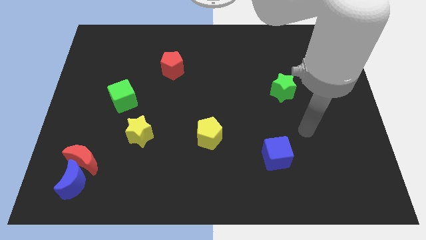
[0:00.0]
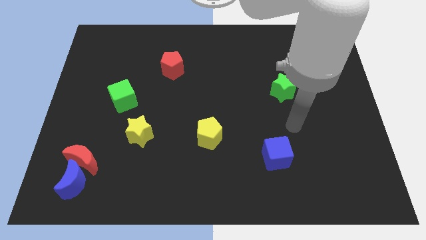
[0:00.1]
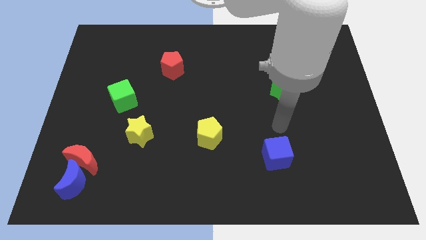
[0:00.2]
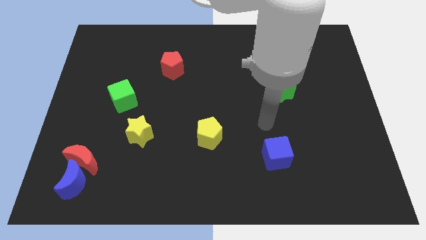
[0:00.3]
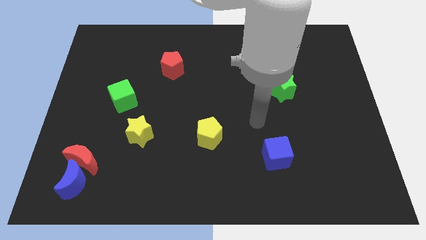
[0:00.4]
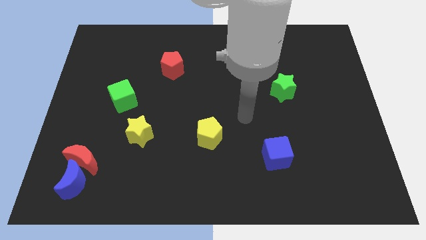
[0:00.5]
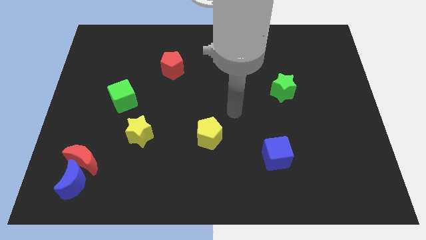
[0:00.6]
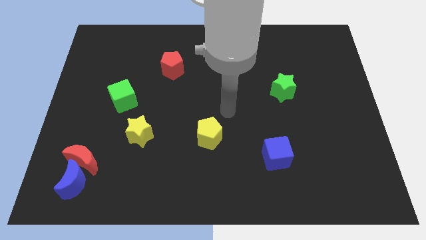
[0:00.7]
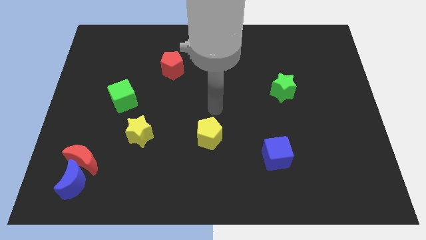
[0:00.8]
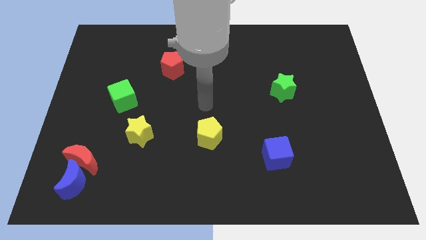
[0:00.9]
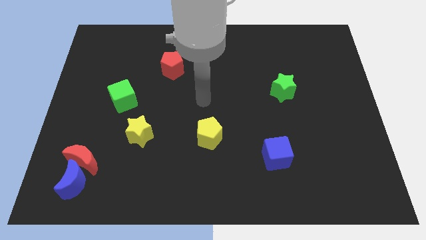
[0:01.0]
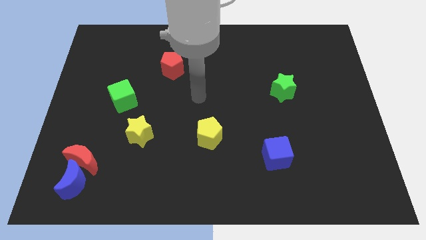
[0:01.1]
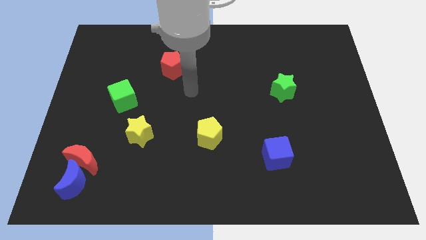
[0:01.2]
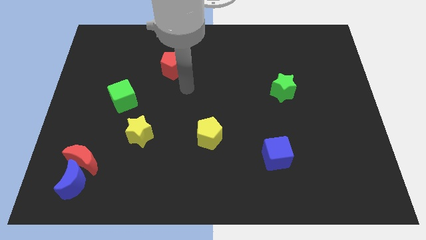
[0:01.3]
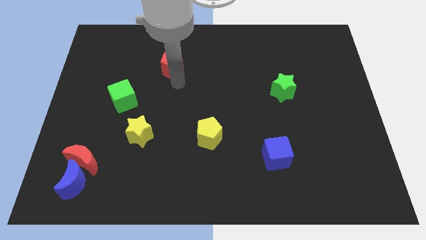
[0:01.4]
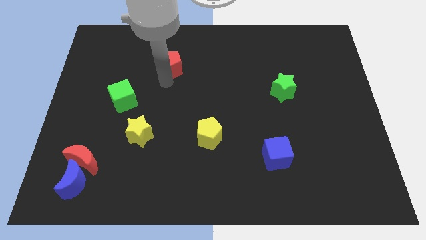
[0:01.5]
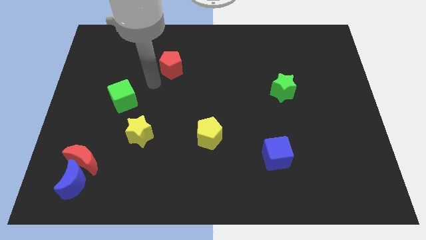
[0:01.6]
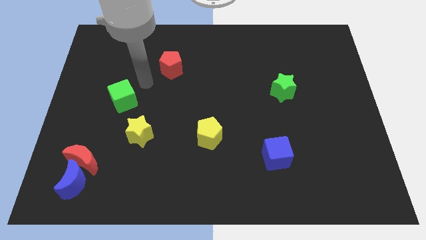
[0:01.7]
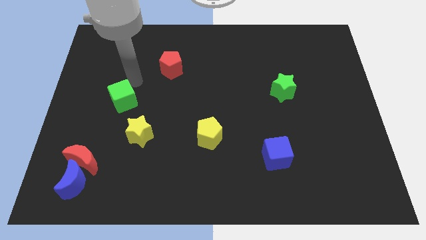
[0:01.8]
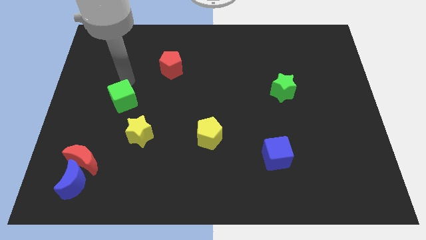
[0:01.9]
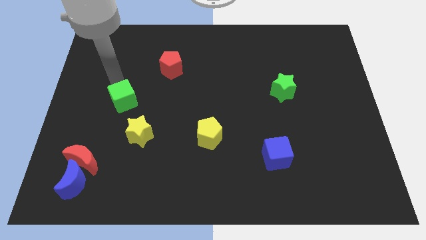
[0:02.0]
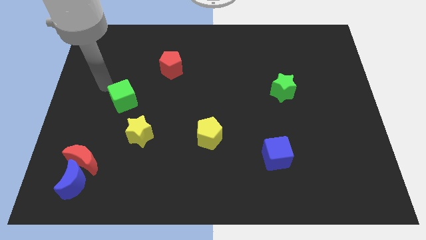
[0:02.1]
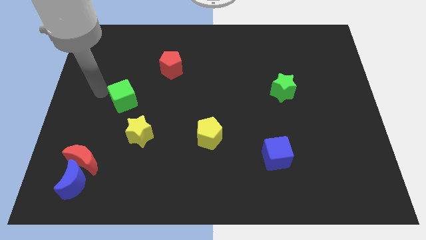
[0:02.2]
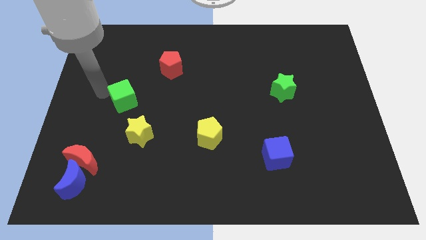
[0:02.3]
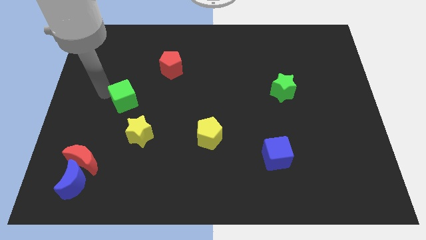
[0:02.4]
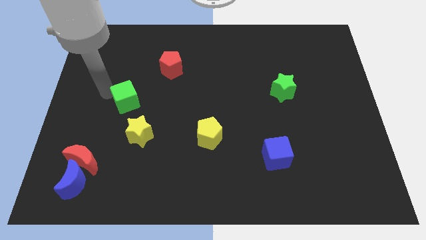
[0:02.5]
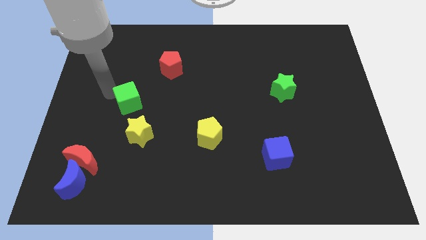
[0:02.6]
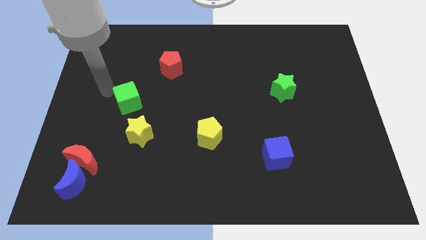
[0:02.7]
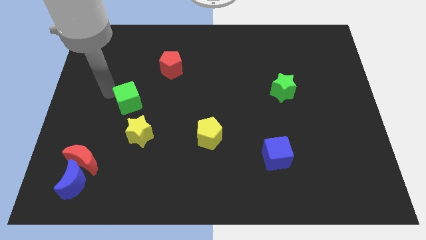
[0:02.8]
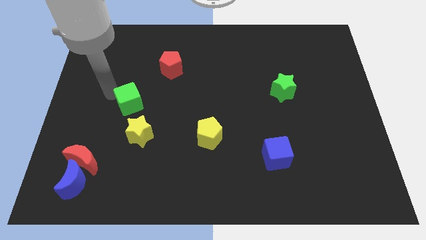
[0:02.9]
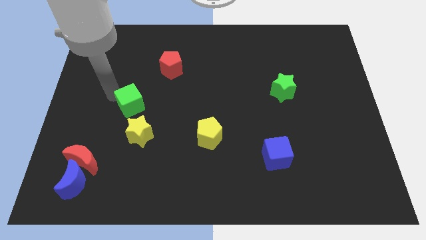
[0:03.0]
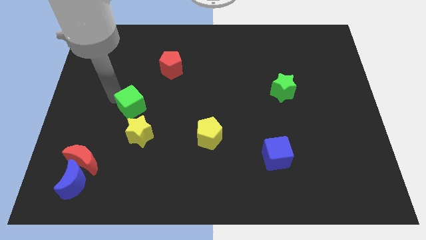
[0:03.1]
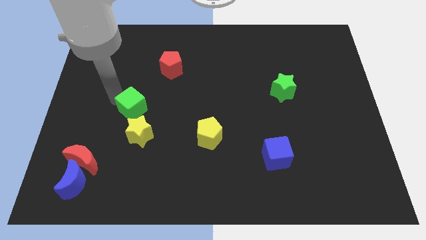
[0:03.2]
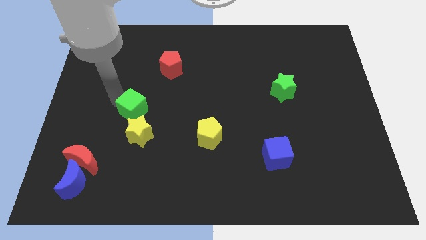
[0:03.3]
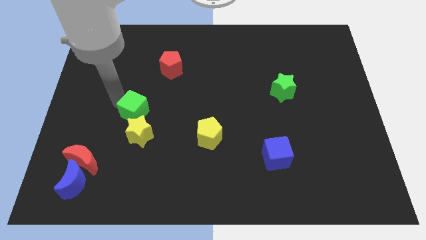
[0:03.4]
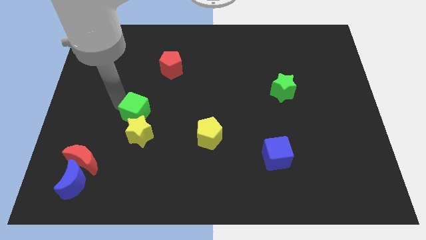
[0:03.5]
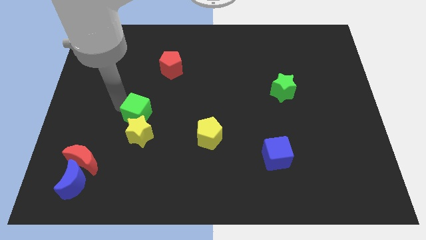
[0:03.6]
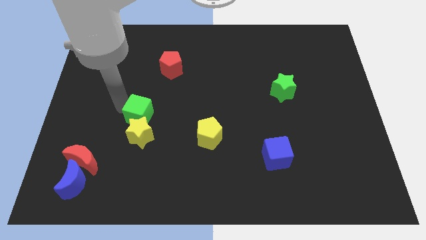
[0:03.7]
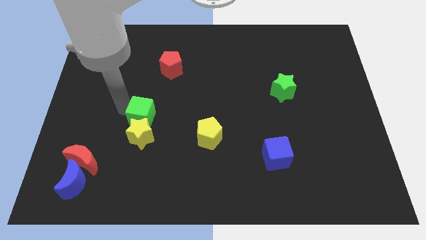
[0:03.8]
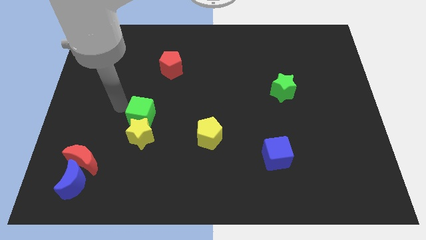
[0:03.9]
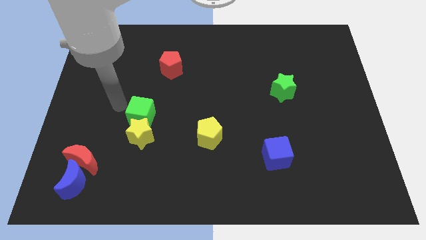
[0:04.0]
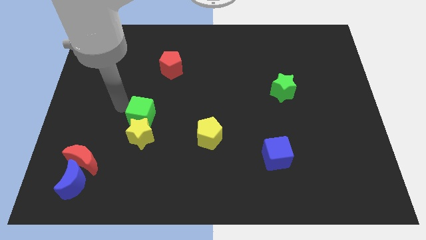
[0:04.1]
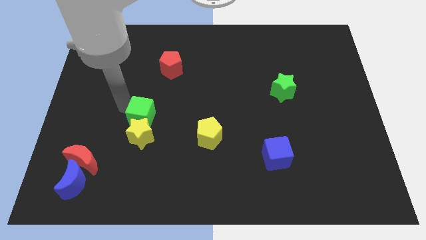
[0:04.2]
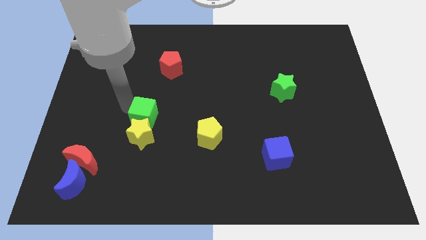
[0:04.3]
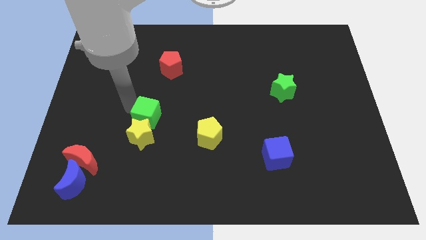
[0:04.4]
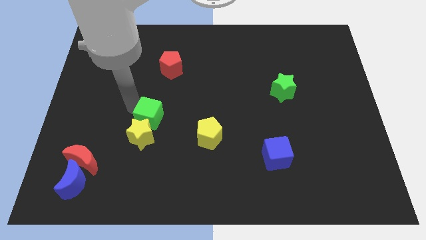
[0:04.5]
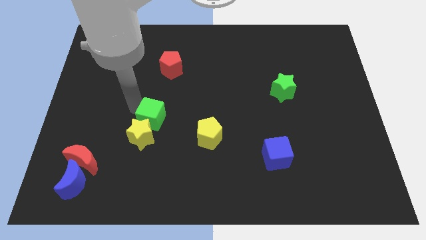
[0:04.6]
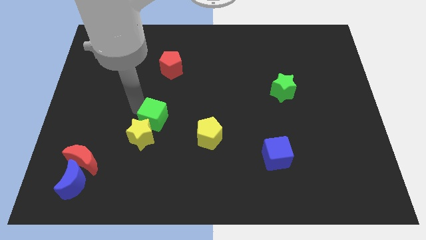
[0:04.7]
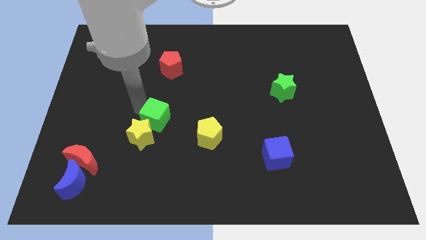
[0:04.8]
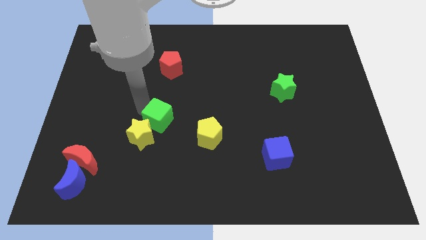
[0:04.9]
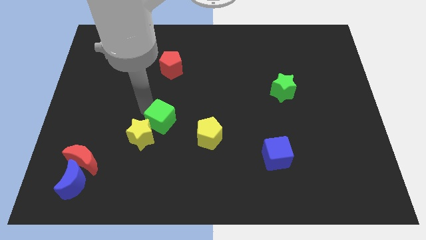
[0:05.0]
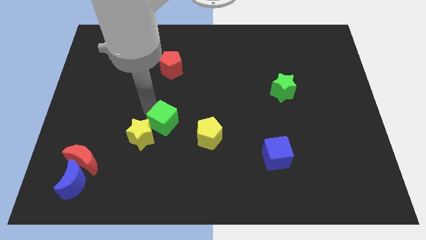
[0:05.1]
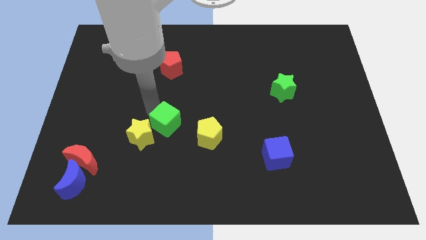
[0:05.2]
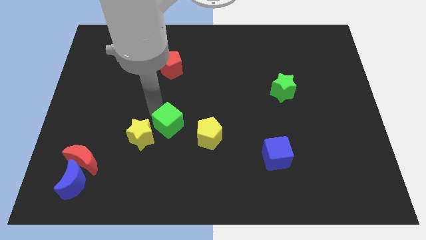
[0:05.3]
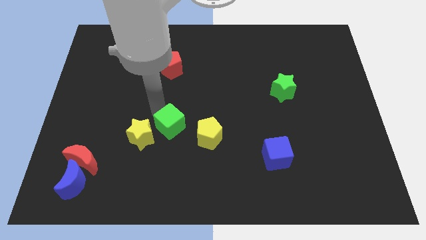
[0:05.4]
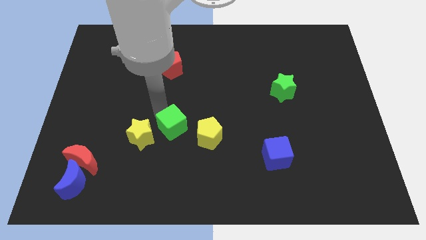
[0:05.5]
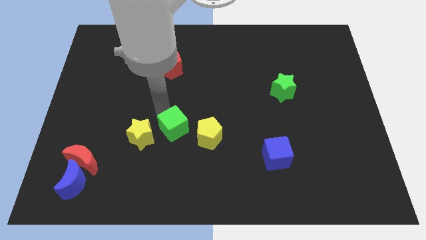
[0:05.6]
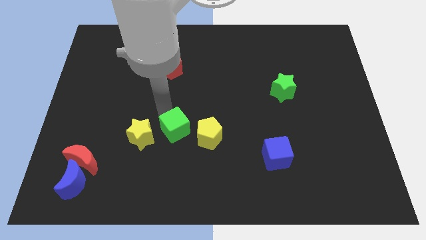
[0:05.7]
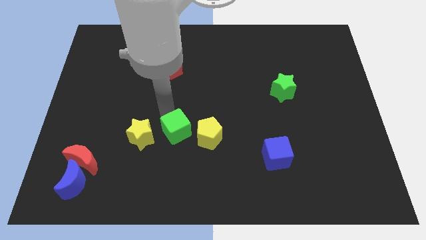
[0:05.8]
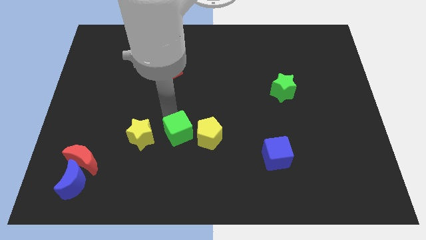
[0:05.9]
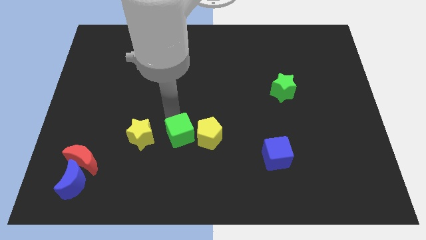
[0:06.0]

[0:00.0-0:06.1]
move the green cube diagonally down and to the left of the yellow pentagon

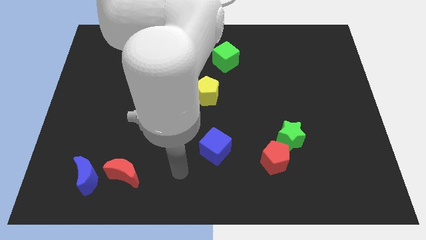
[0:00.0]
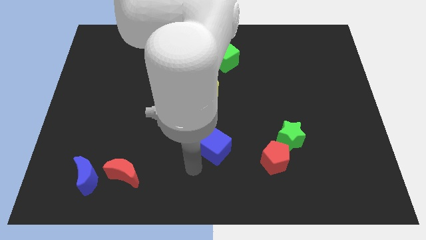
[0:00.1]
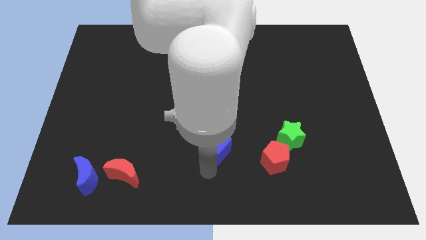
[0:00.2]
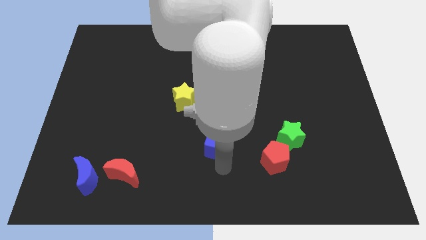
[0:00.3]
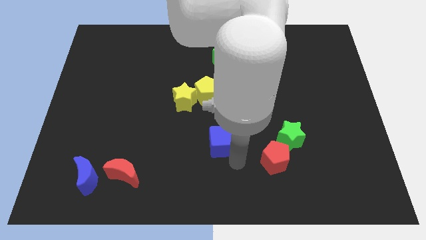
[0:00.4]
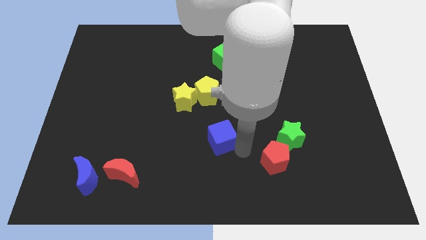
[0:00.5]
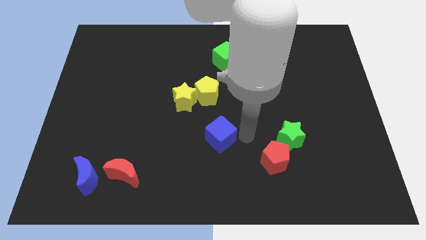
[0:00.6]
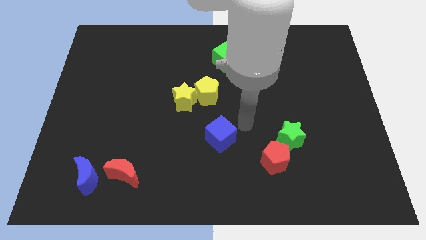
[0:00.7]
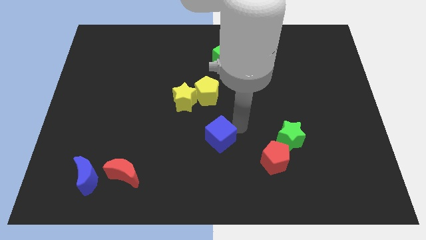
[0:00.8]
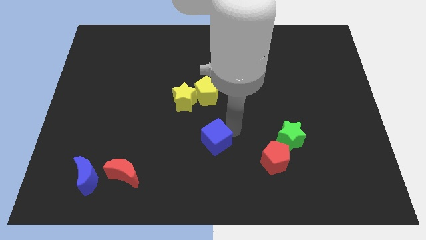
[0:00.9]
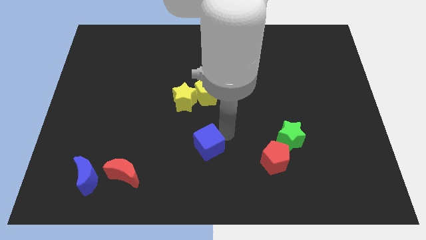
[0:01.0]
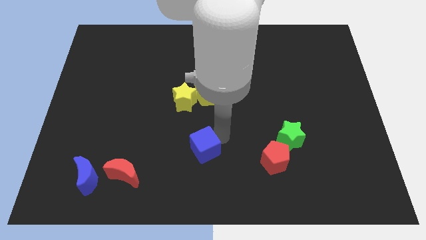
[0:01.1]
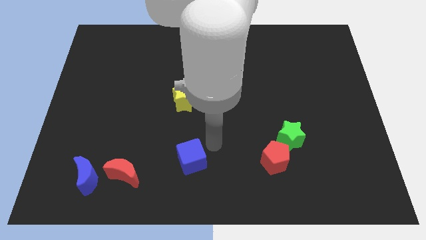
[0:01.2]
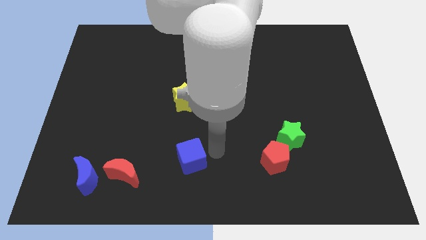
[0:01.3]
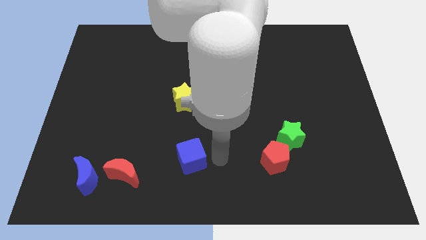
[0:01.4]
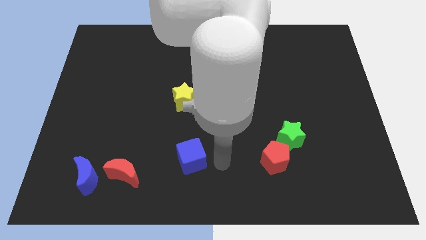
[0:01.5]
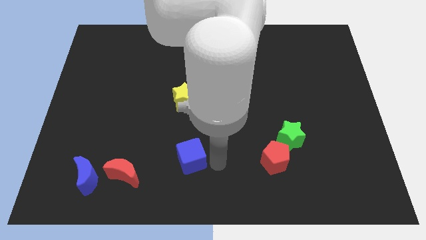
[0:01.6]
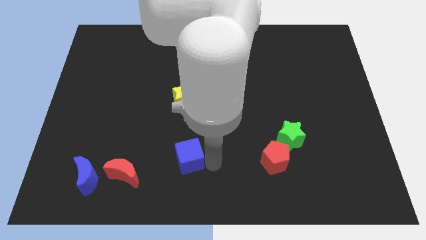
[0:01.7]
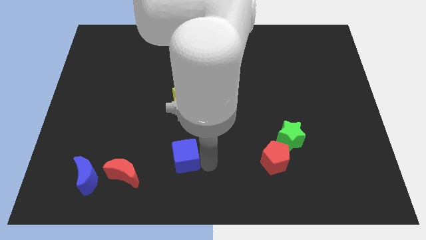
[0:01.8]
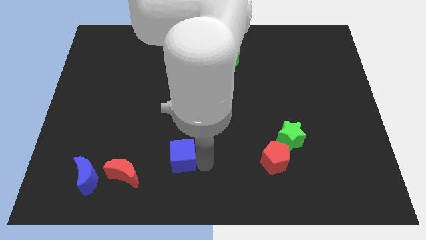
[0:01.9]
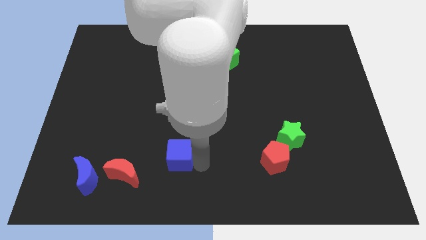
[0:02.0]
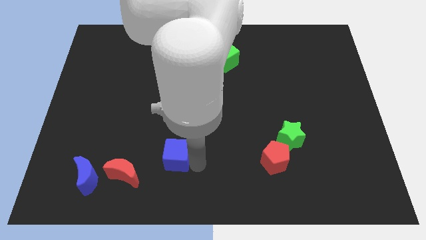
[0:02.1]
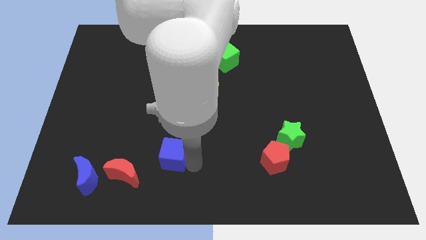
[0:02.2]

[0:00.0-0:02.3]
put the blue cube to the top right side of the red moon
